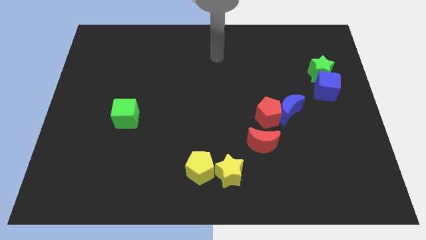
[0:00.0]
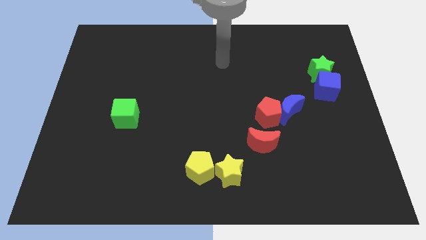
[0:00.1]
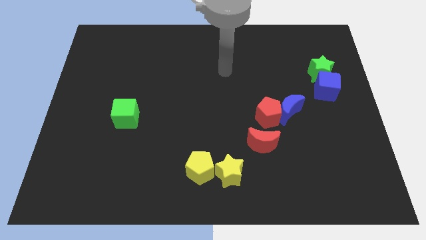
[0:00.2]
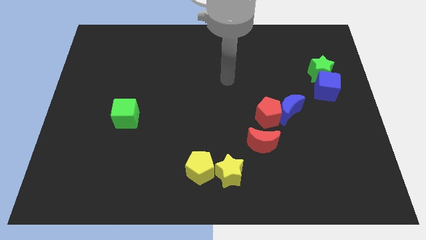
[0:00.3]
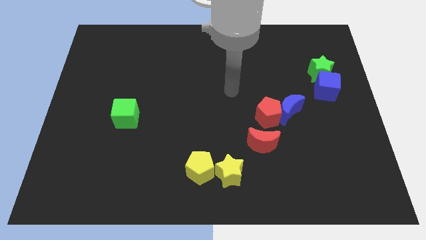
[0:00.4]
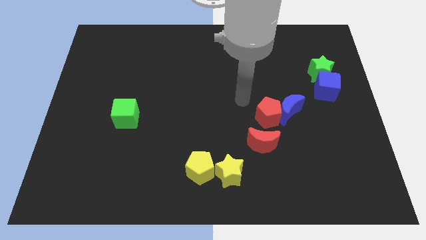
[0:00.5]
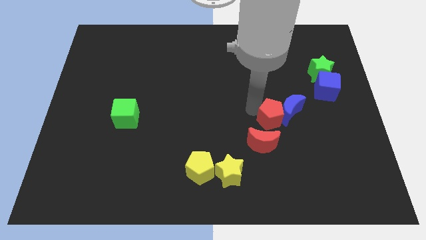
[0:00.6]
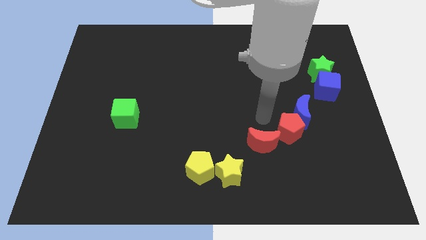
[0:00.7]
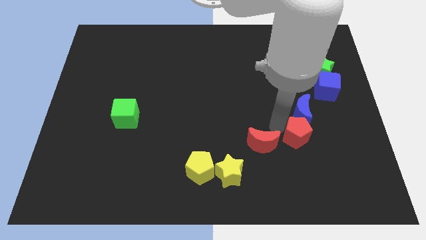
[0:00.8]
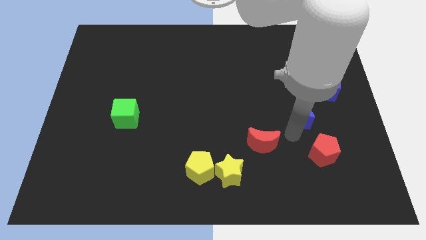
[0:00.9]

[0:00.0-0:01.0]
move the blue moon away from the red pentagon

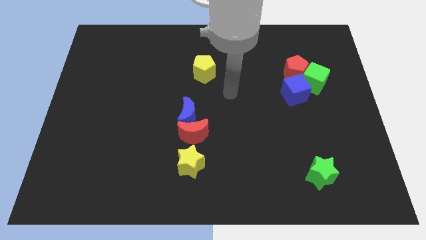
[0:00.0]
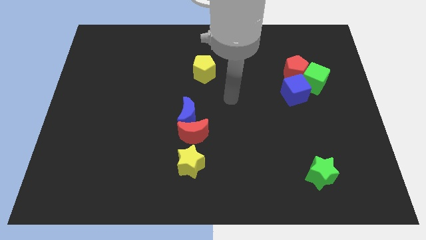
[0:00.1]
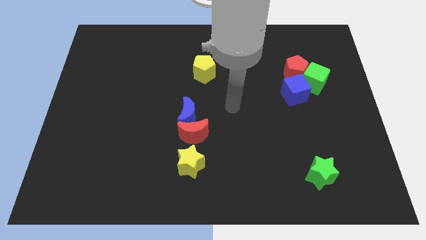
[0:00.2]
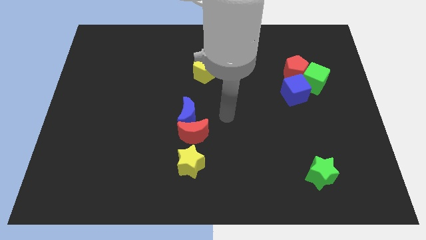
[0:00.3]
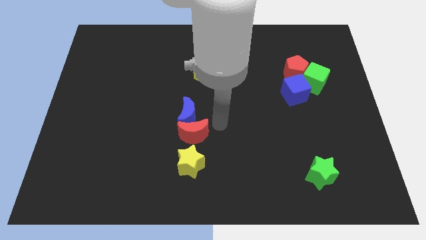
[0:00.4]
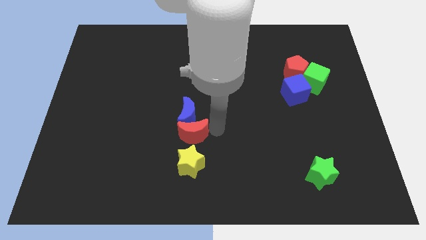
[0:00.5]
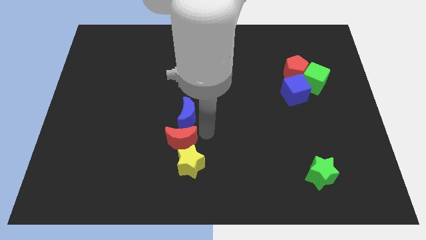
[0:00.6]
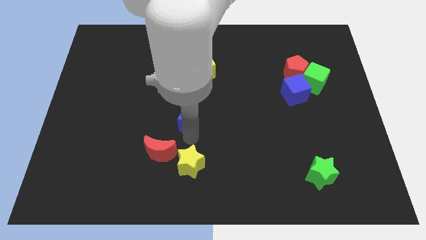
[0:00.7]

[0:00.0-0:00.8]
separate the blue moon from the red moon

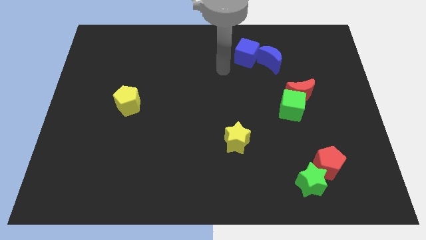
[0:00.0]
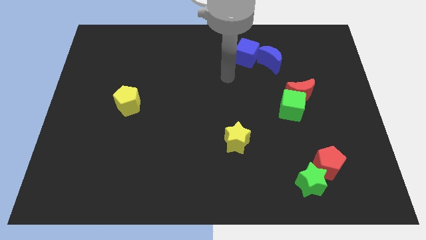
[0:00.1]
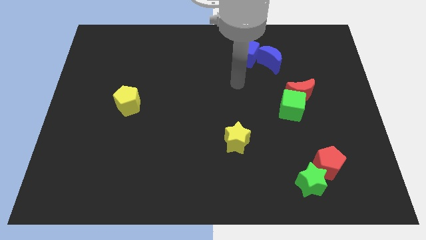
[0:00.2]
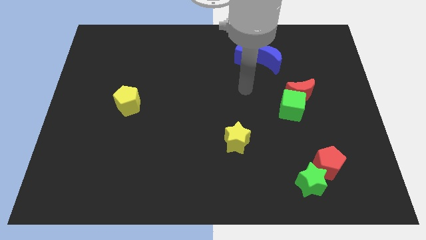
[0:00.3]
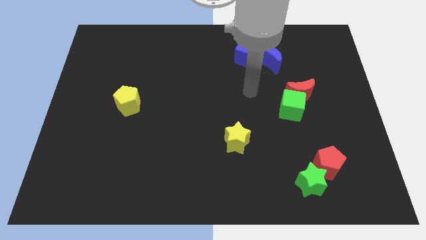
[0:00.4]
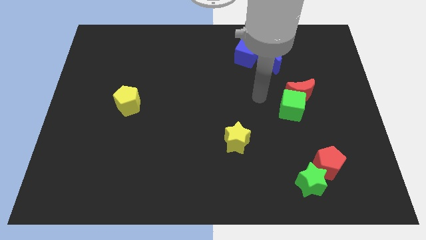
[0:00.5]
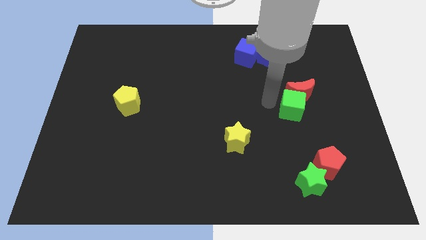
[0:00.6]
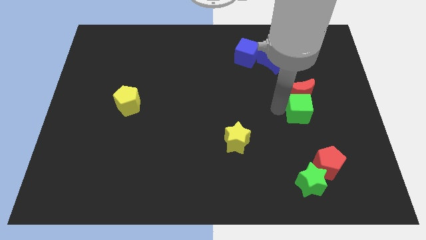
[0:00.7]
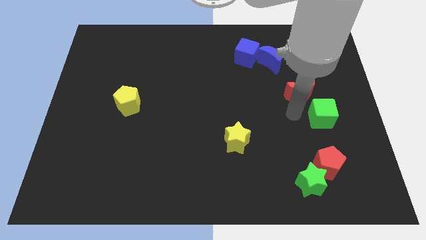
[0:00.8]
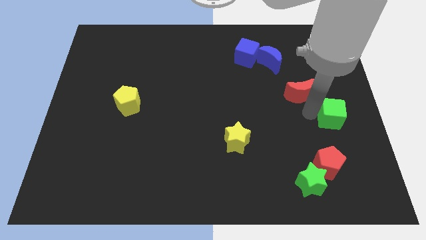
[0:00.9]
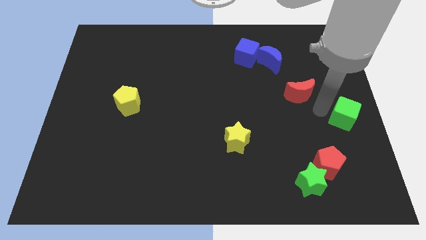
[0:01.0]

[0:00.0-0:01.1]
pull the red moon apart from the green cube

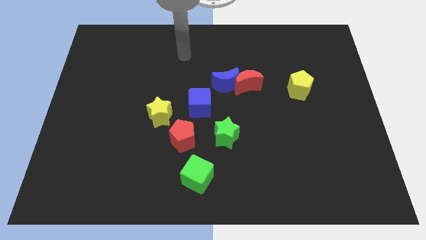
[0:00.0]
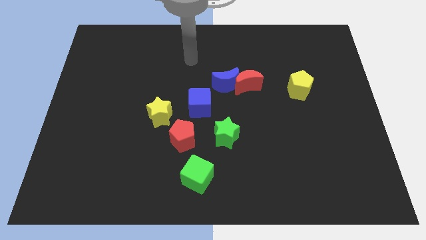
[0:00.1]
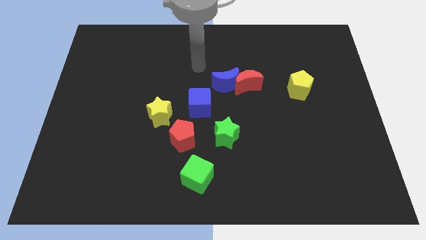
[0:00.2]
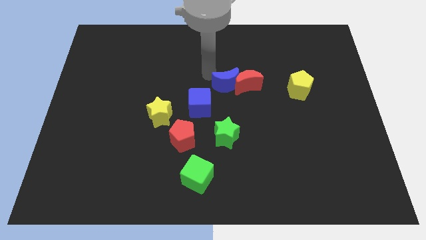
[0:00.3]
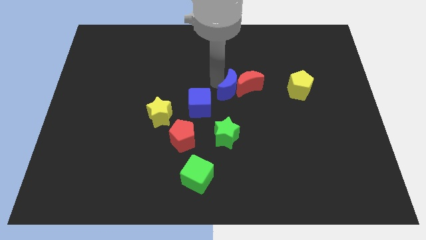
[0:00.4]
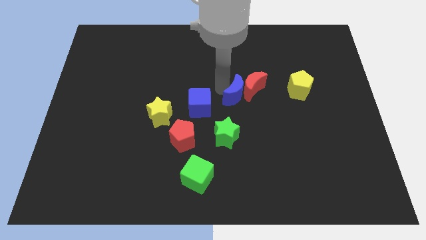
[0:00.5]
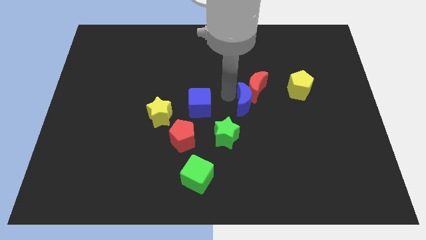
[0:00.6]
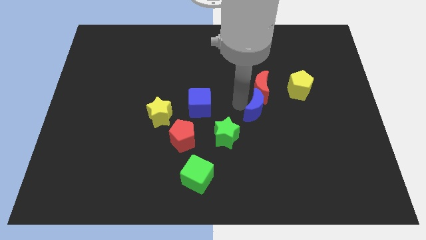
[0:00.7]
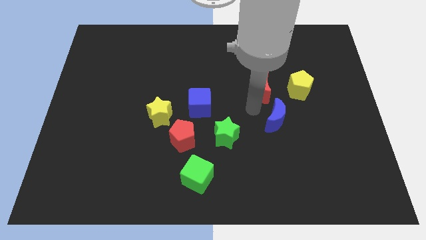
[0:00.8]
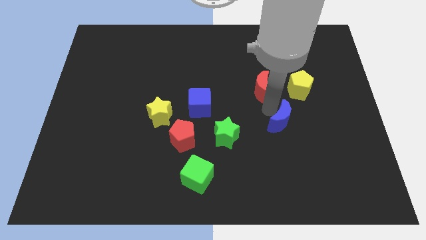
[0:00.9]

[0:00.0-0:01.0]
move the red moon away from the blue moon

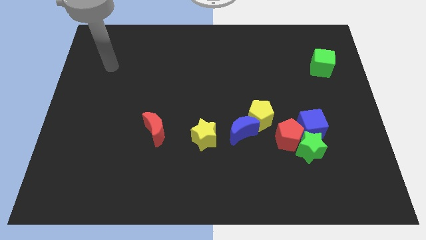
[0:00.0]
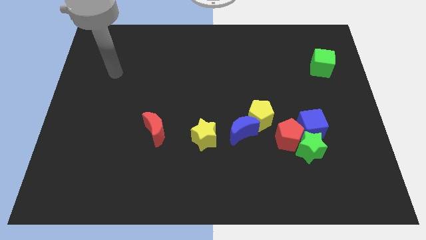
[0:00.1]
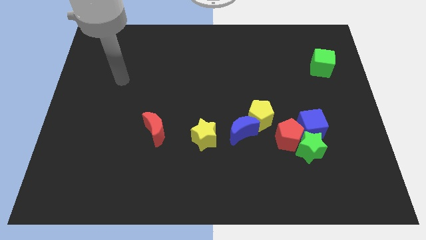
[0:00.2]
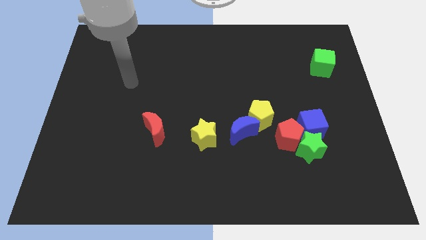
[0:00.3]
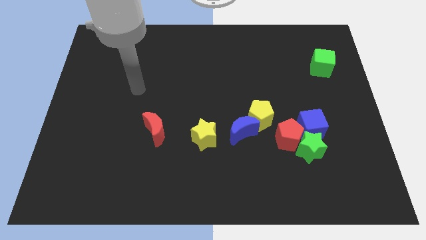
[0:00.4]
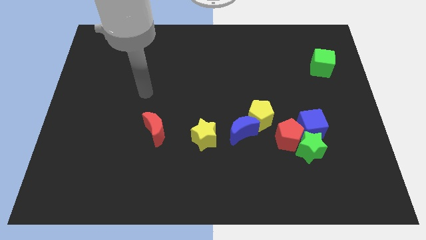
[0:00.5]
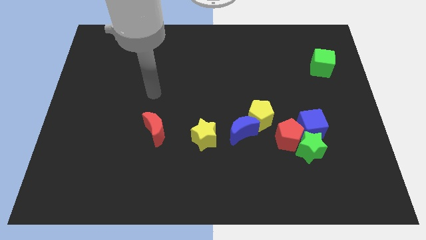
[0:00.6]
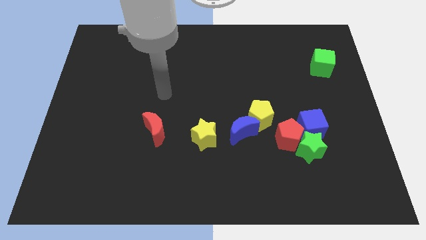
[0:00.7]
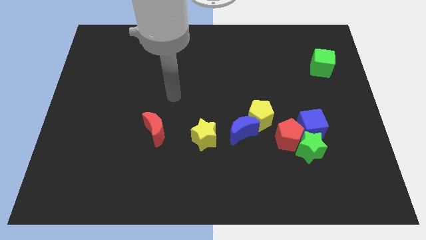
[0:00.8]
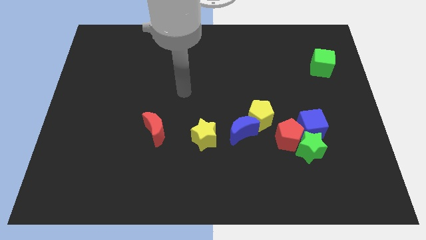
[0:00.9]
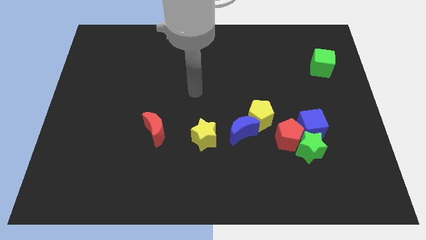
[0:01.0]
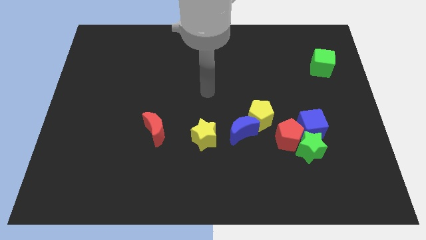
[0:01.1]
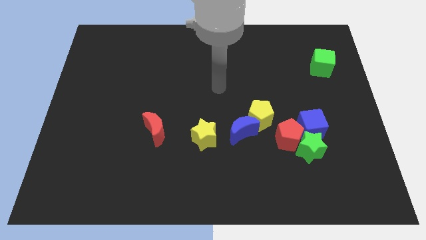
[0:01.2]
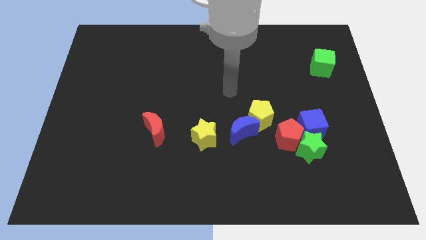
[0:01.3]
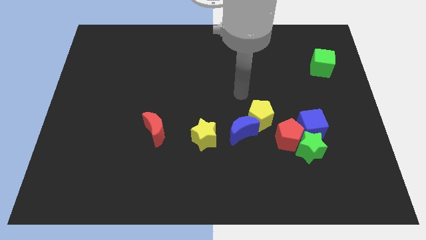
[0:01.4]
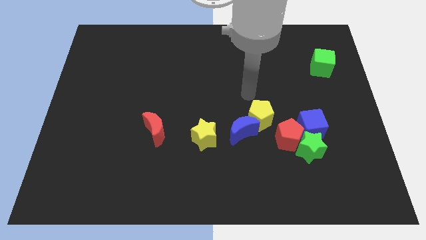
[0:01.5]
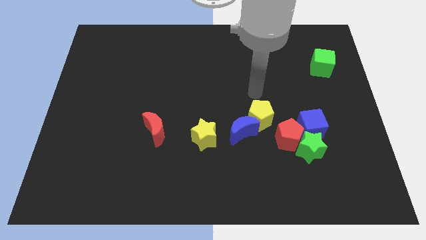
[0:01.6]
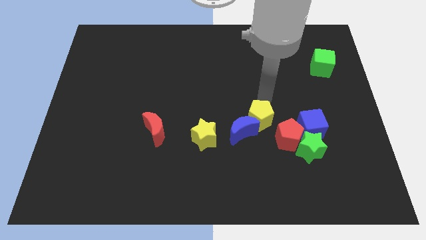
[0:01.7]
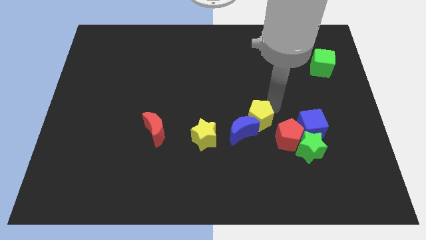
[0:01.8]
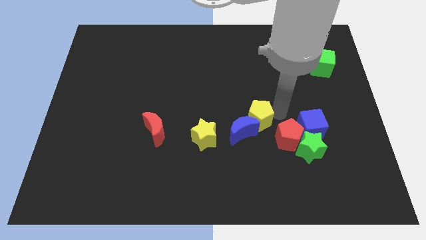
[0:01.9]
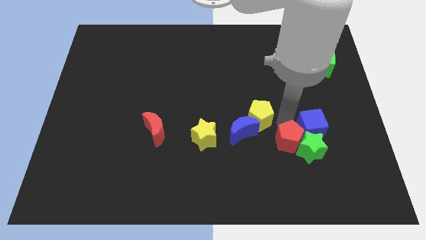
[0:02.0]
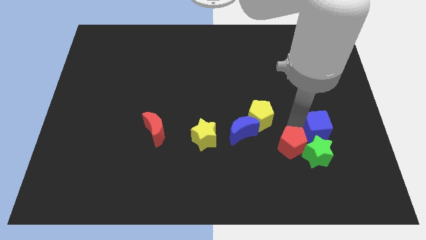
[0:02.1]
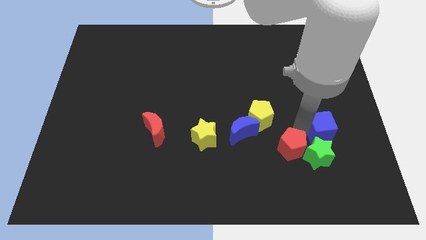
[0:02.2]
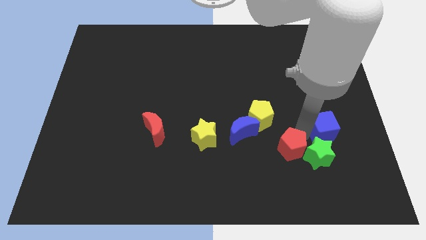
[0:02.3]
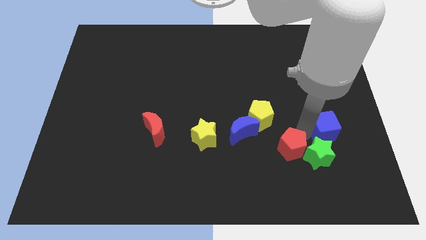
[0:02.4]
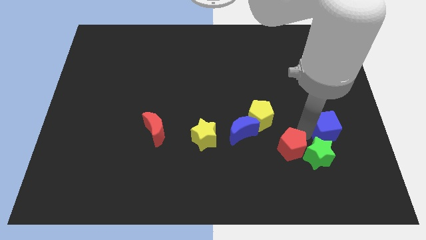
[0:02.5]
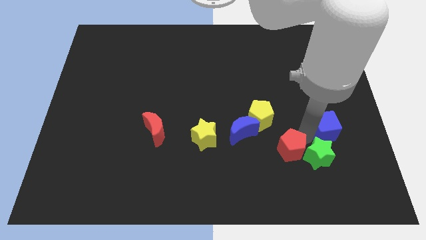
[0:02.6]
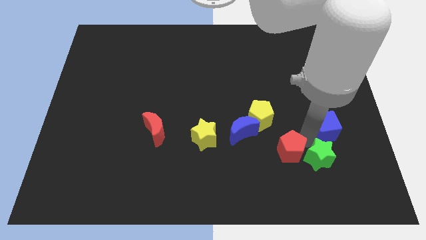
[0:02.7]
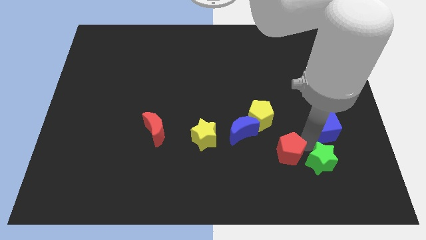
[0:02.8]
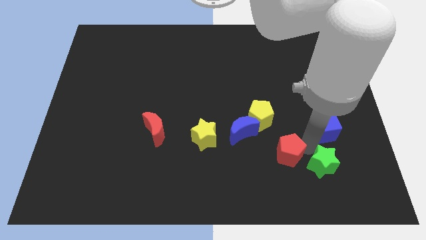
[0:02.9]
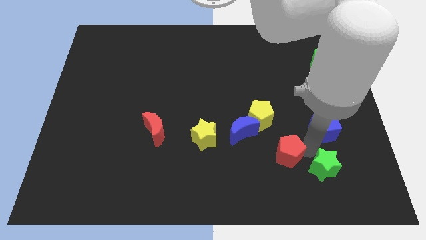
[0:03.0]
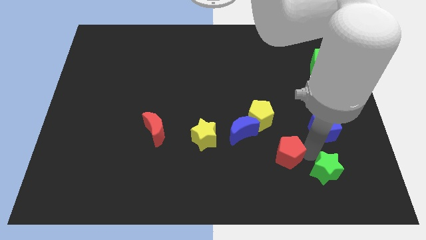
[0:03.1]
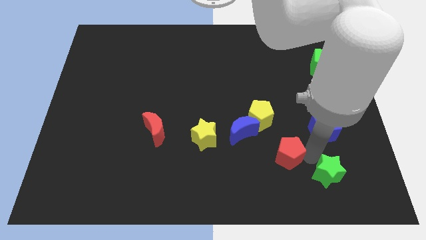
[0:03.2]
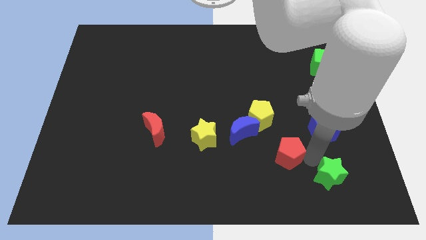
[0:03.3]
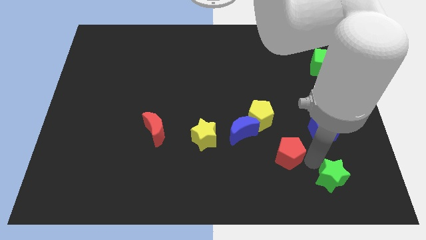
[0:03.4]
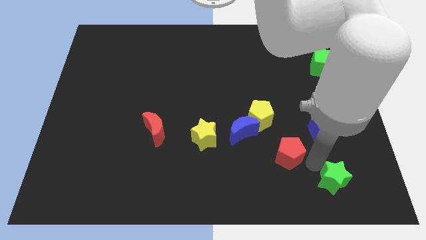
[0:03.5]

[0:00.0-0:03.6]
separate the green star from the red pentagon and blue cube

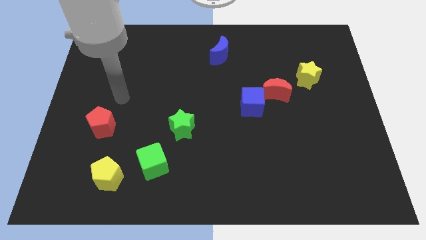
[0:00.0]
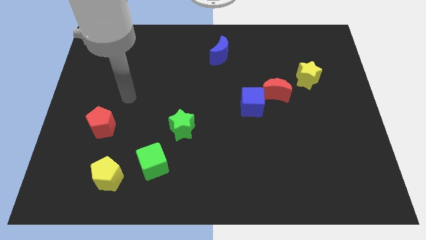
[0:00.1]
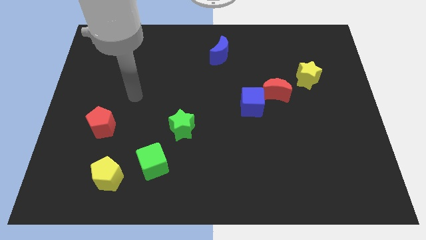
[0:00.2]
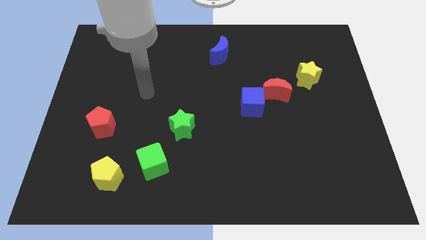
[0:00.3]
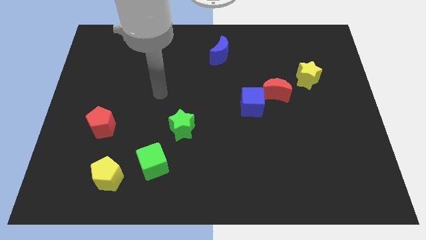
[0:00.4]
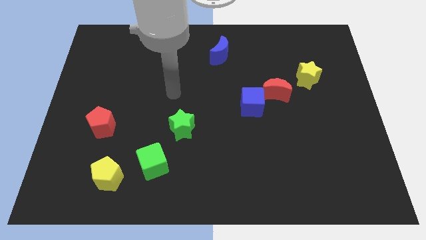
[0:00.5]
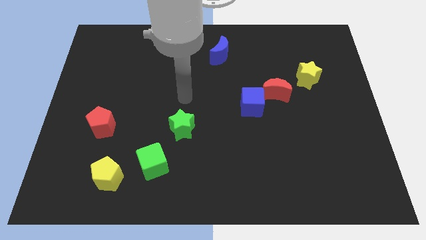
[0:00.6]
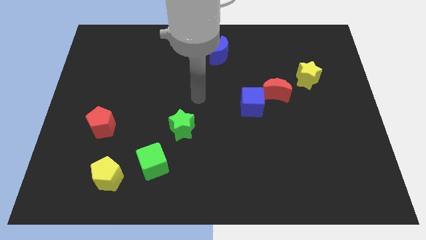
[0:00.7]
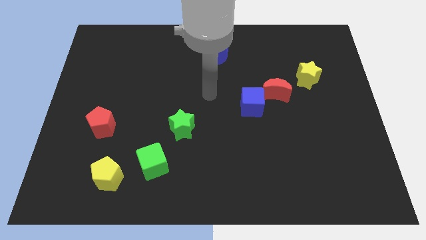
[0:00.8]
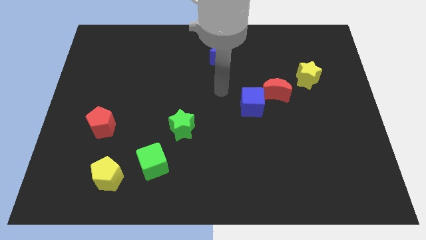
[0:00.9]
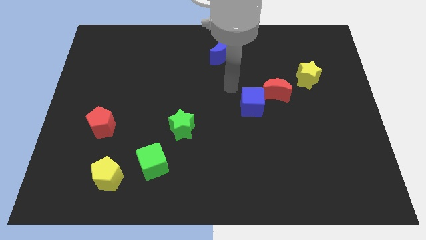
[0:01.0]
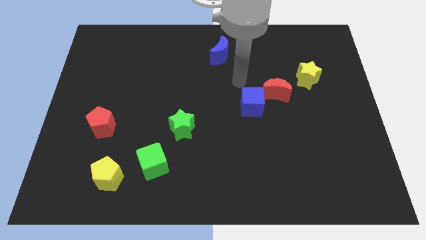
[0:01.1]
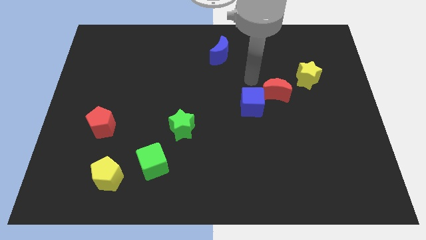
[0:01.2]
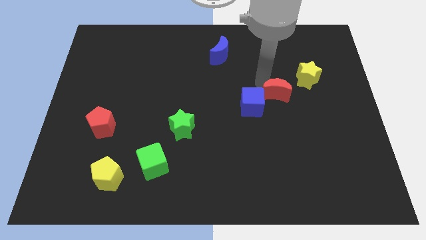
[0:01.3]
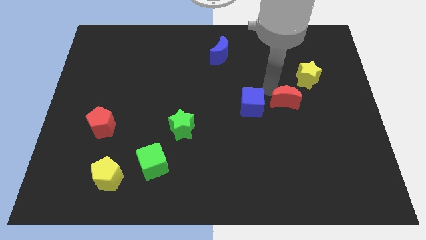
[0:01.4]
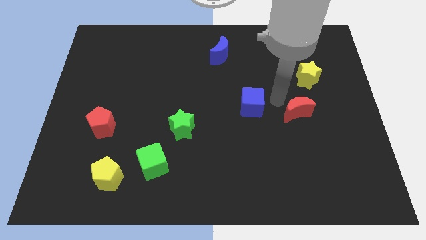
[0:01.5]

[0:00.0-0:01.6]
move the blue cube away from the red moon

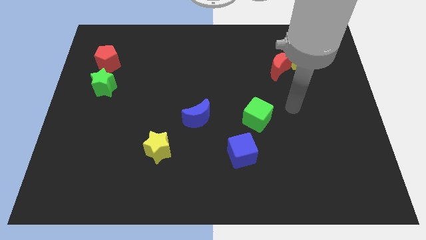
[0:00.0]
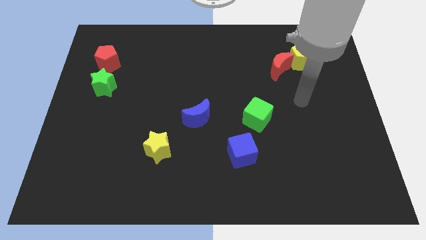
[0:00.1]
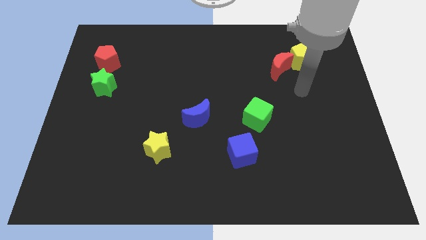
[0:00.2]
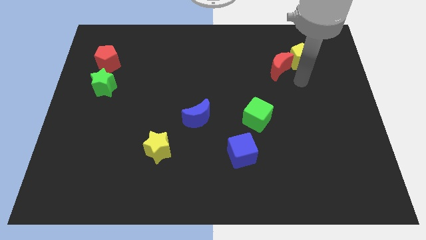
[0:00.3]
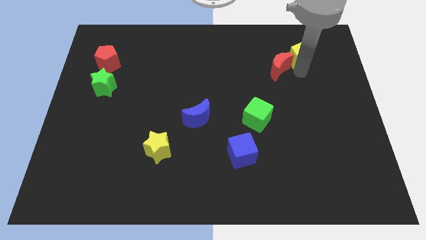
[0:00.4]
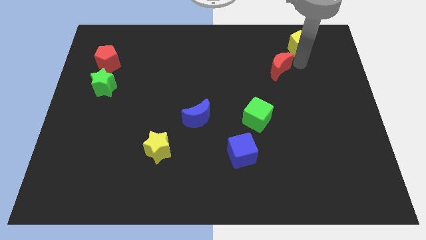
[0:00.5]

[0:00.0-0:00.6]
pull the red moon apart from the yellow pentagon
